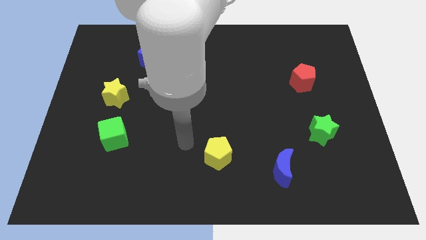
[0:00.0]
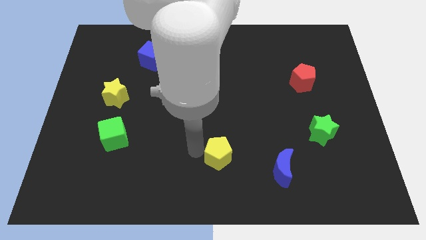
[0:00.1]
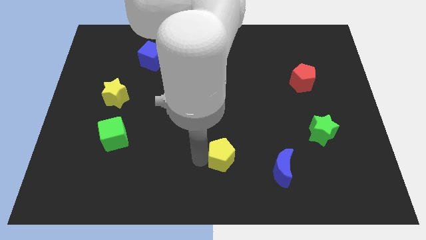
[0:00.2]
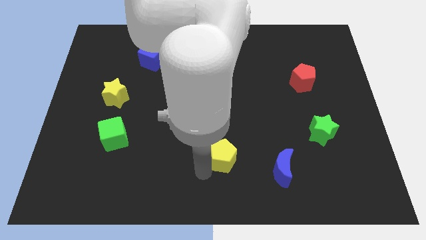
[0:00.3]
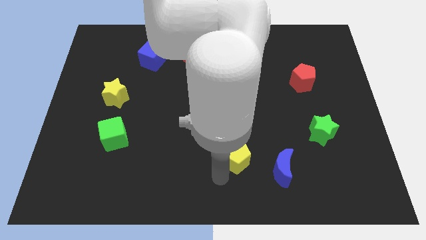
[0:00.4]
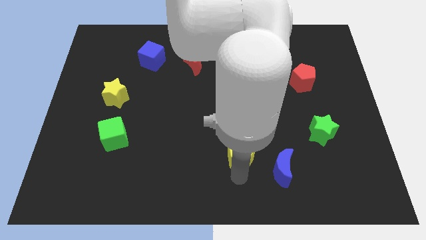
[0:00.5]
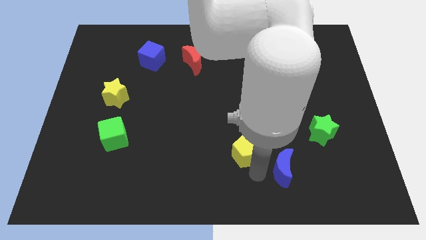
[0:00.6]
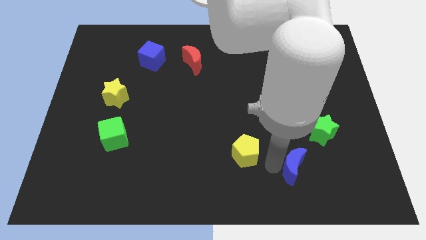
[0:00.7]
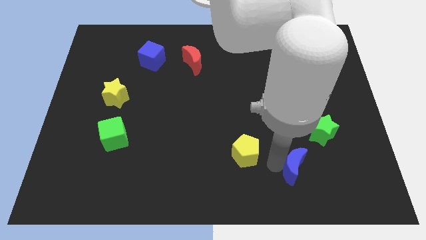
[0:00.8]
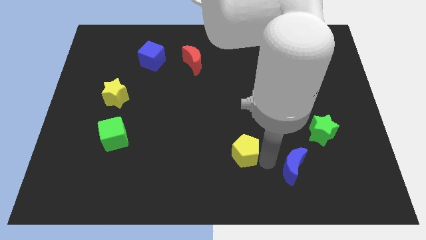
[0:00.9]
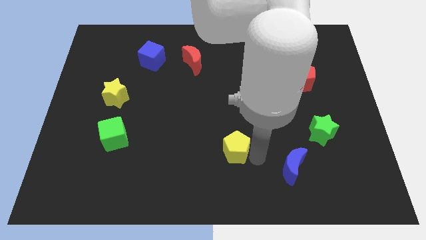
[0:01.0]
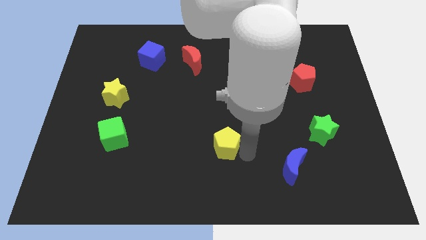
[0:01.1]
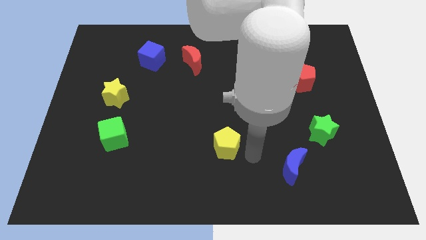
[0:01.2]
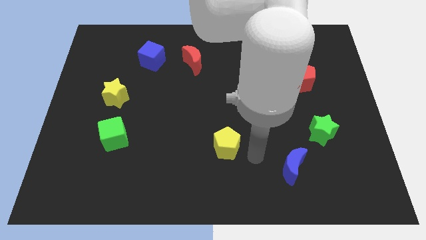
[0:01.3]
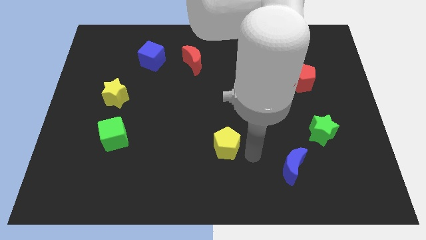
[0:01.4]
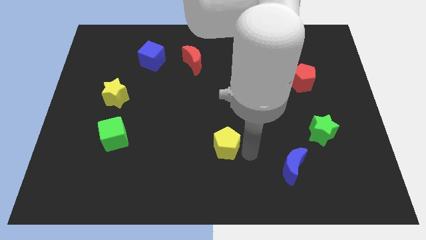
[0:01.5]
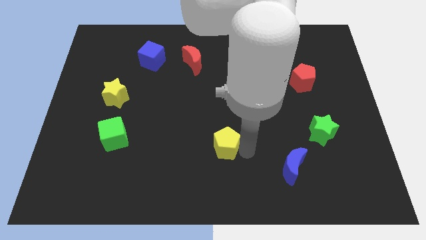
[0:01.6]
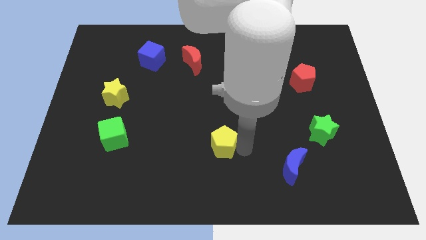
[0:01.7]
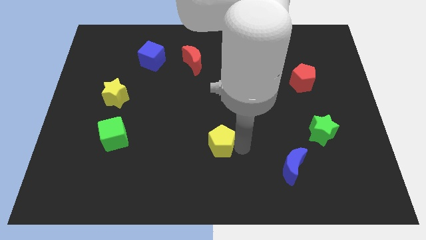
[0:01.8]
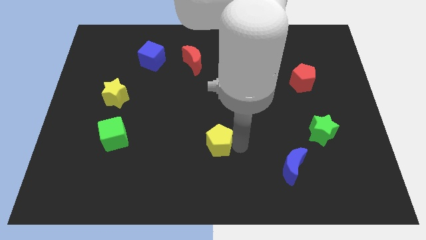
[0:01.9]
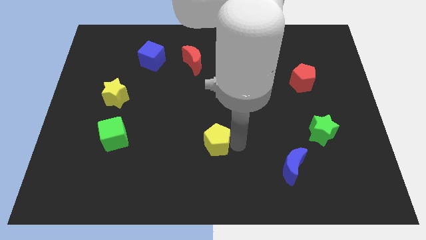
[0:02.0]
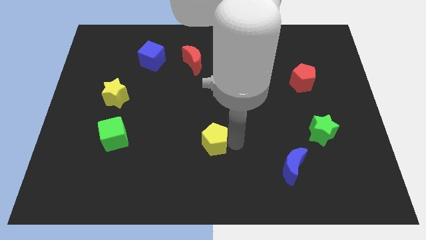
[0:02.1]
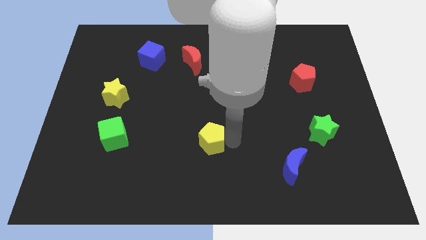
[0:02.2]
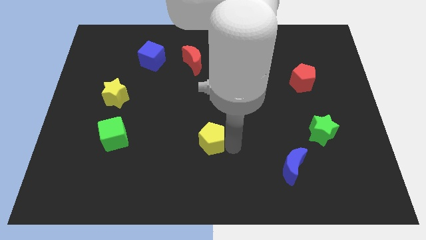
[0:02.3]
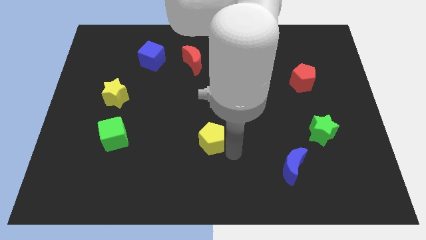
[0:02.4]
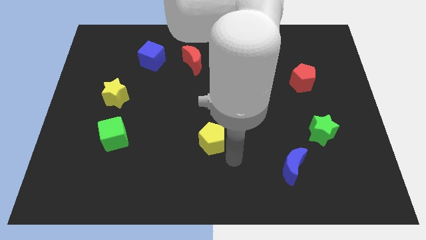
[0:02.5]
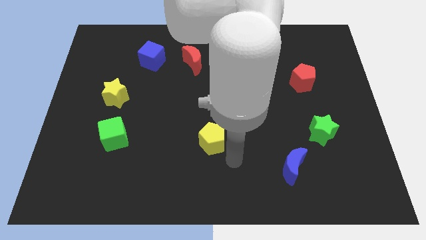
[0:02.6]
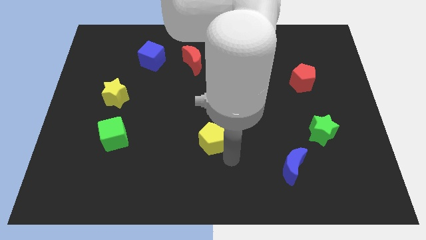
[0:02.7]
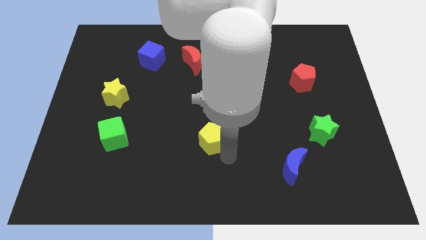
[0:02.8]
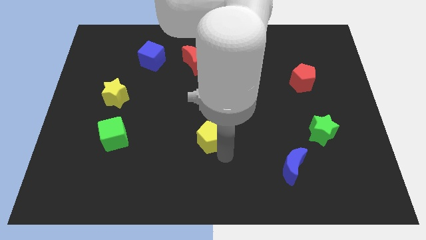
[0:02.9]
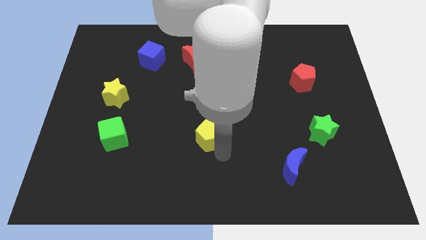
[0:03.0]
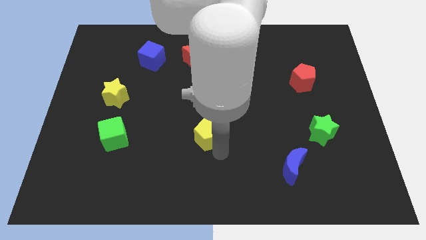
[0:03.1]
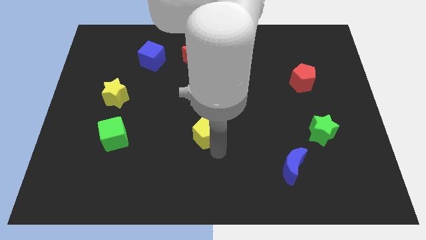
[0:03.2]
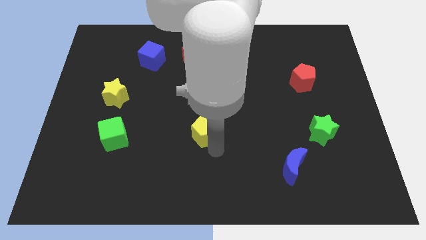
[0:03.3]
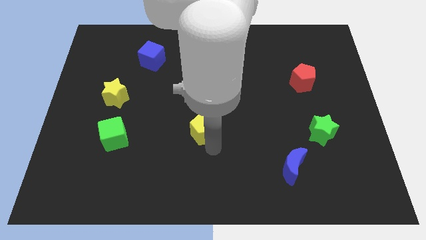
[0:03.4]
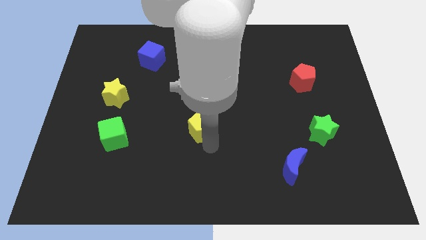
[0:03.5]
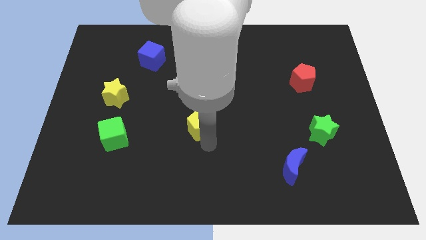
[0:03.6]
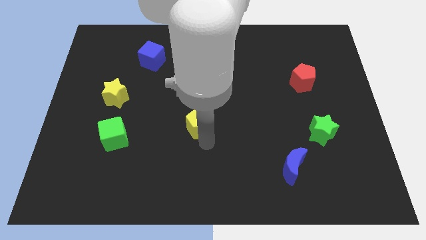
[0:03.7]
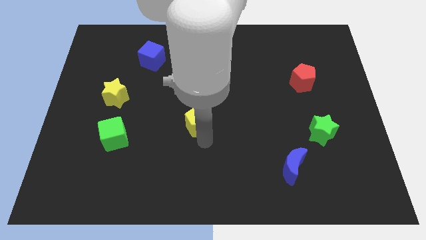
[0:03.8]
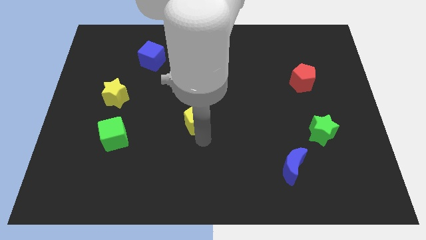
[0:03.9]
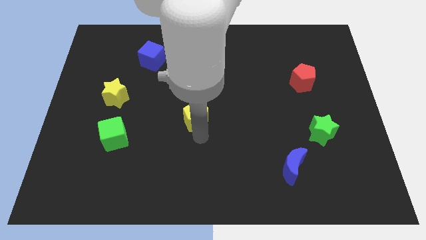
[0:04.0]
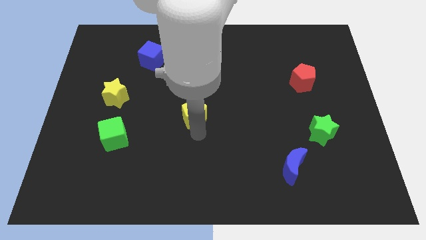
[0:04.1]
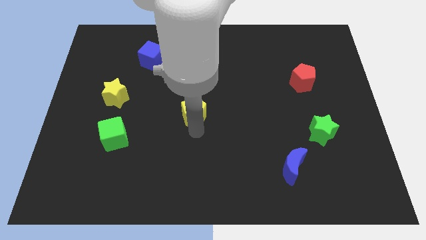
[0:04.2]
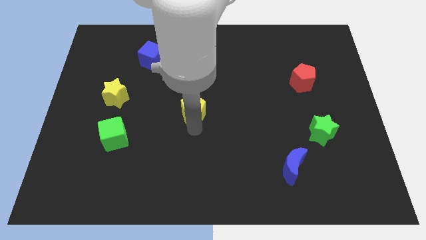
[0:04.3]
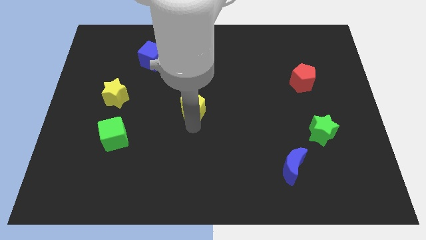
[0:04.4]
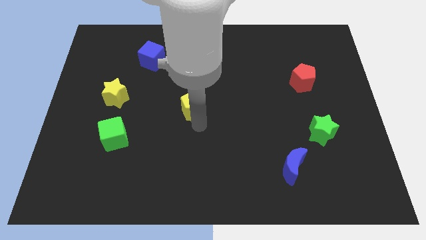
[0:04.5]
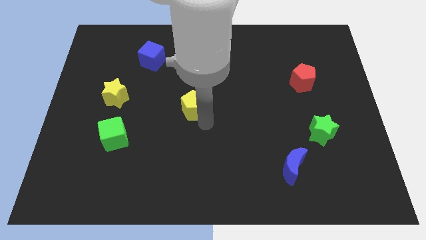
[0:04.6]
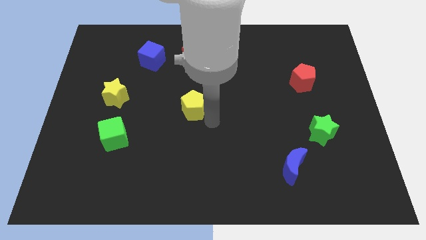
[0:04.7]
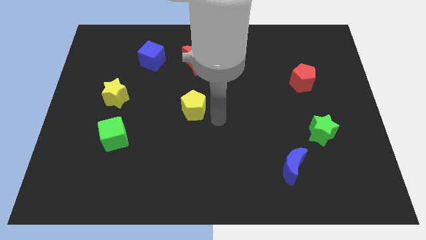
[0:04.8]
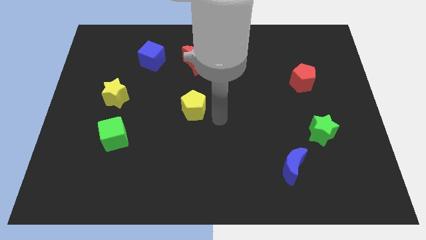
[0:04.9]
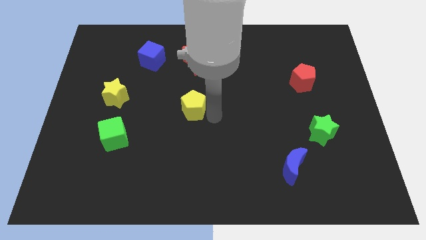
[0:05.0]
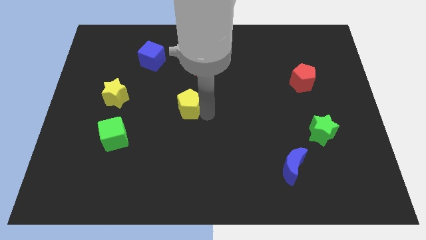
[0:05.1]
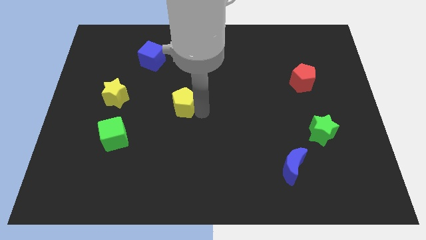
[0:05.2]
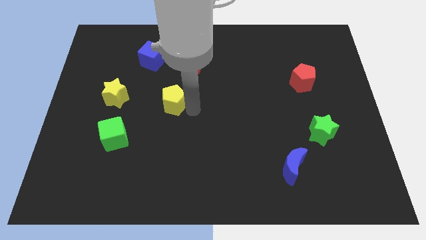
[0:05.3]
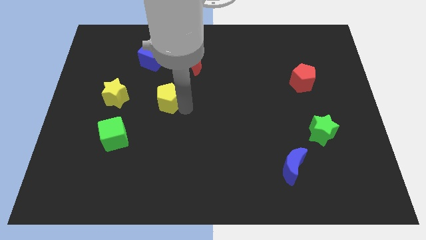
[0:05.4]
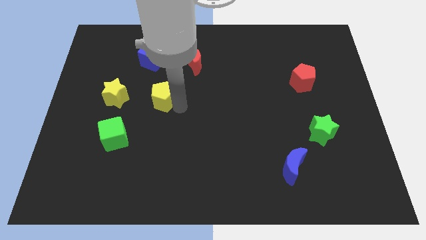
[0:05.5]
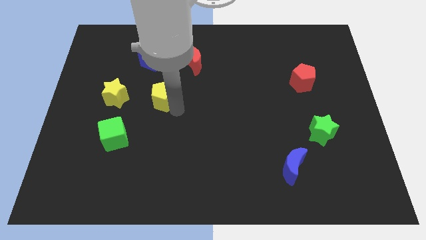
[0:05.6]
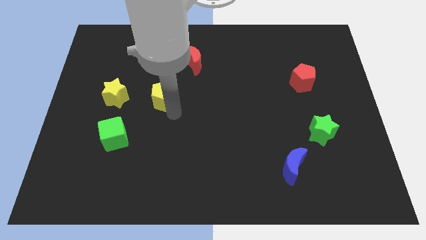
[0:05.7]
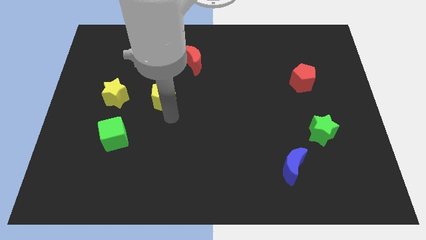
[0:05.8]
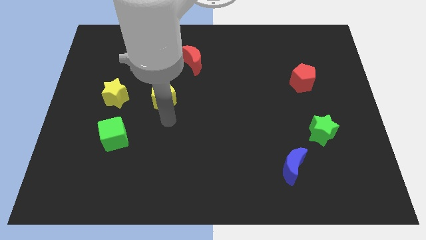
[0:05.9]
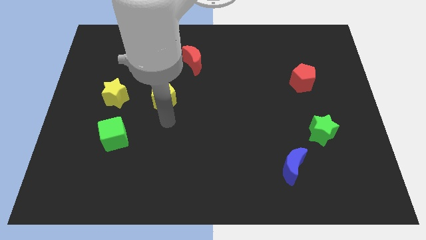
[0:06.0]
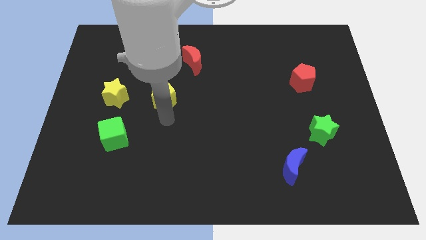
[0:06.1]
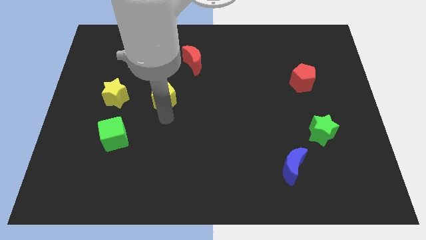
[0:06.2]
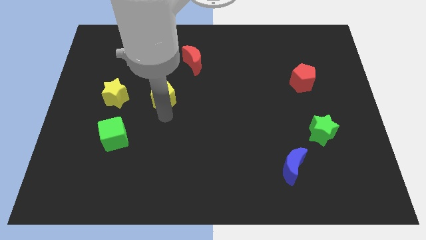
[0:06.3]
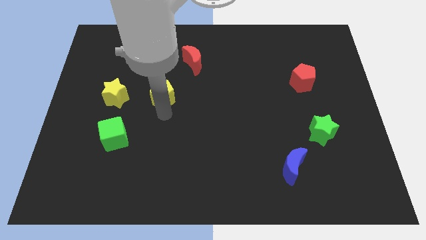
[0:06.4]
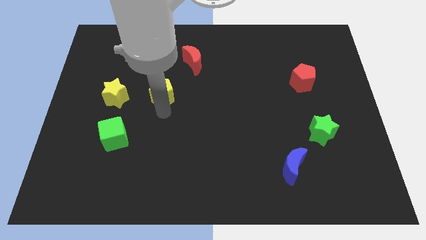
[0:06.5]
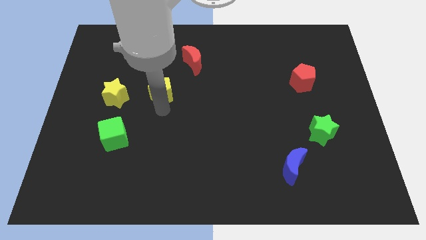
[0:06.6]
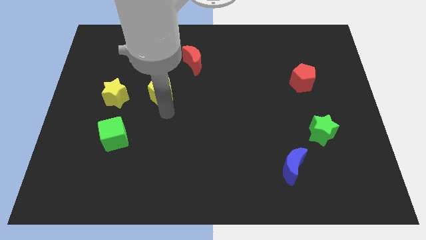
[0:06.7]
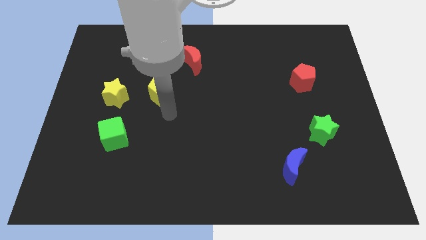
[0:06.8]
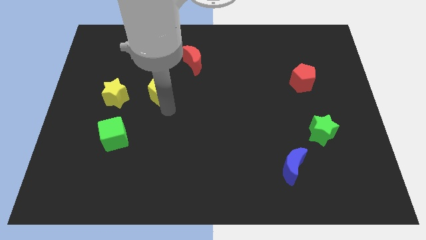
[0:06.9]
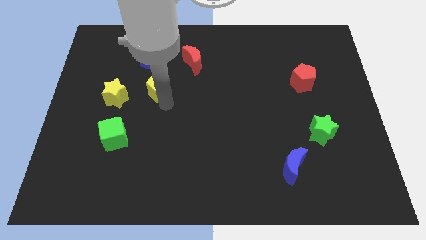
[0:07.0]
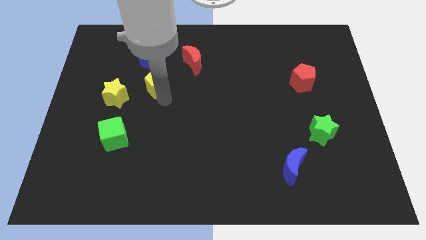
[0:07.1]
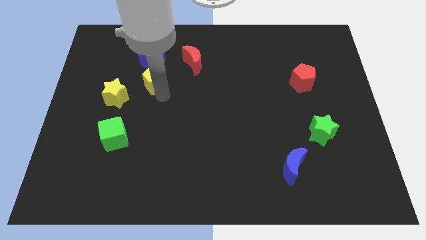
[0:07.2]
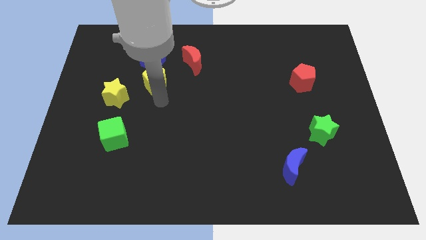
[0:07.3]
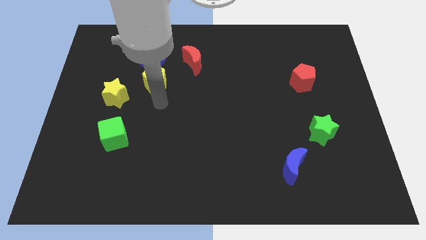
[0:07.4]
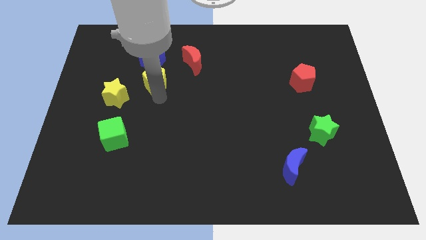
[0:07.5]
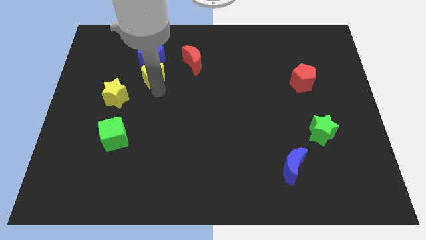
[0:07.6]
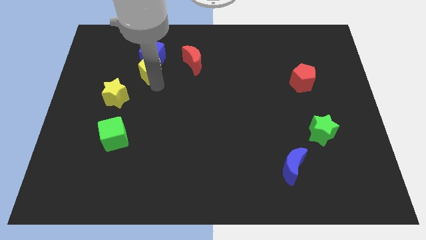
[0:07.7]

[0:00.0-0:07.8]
slide the yellow pentagon next to the blue cube
